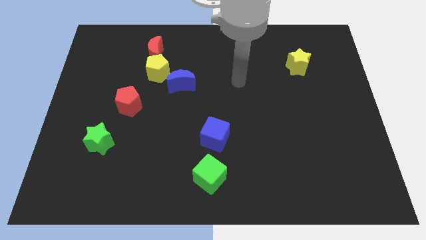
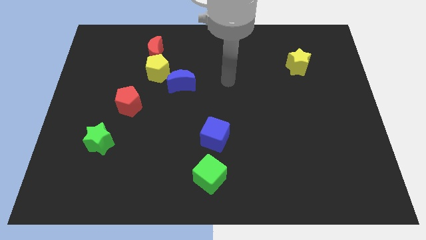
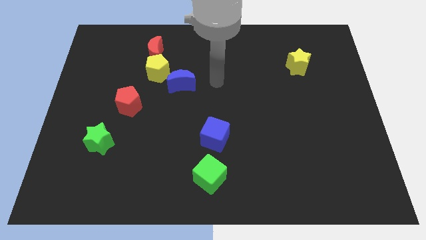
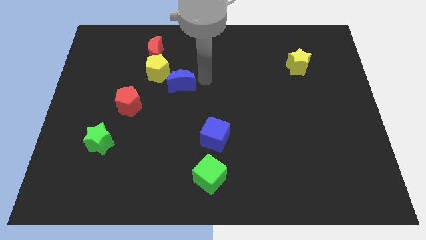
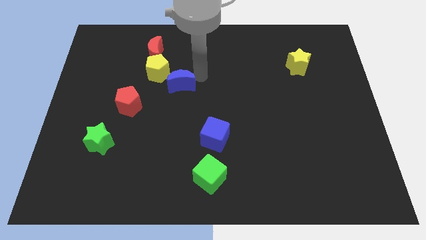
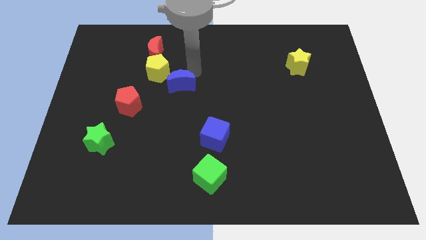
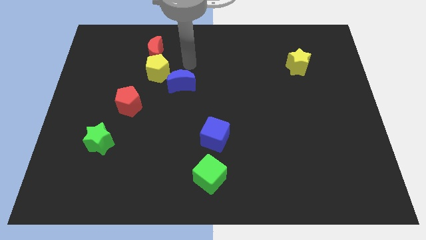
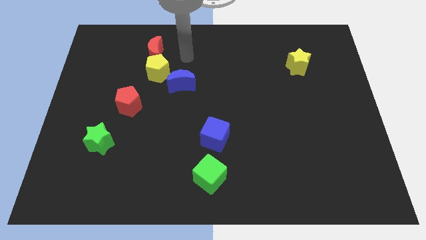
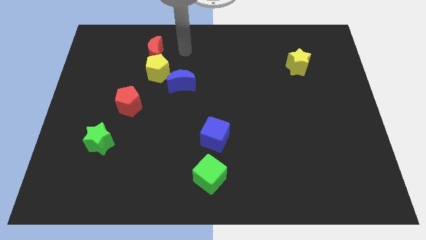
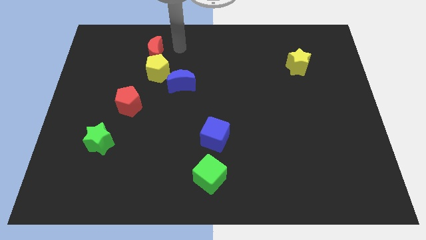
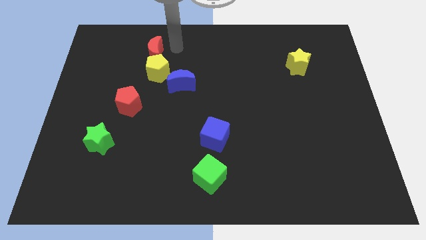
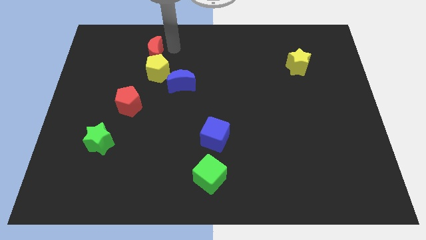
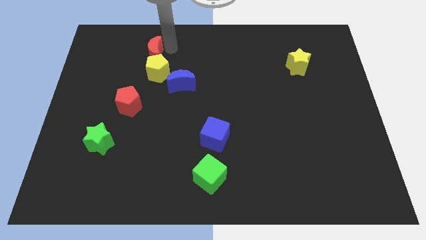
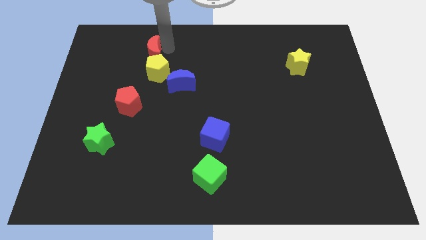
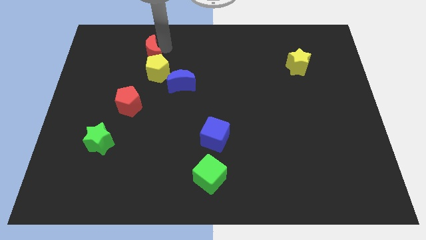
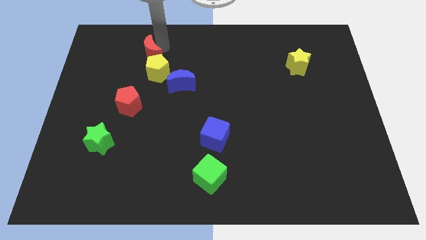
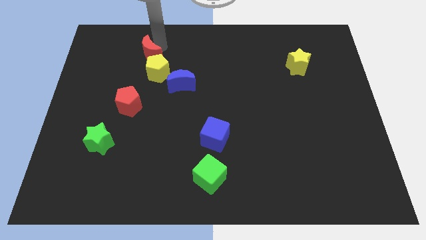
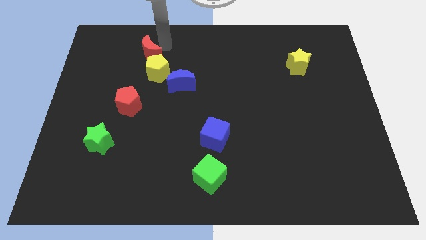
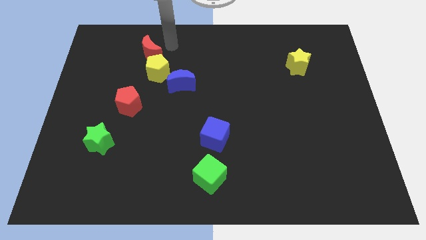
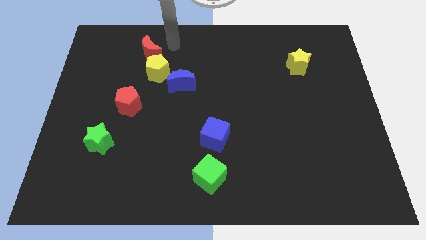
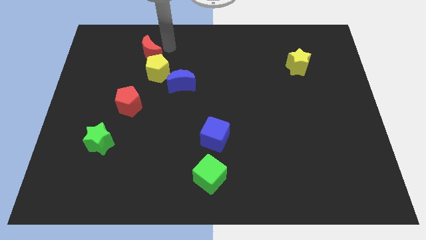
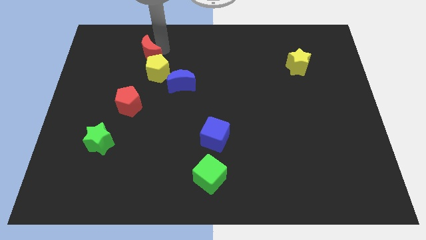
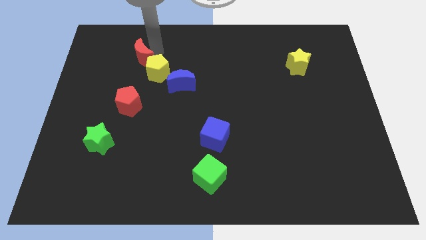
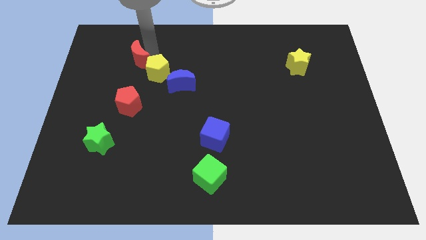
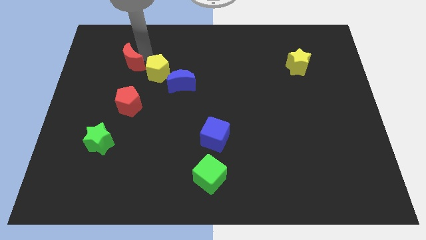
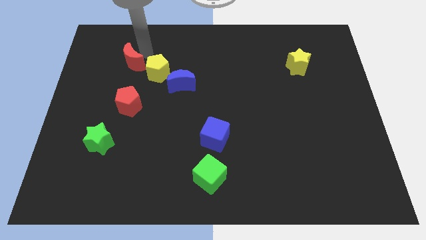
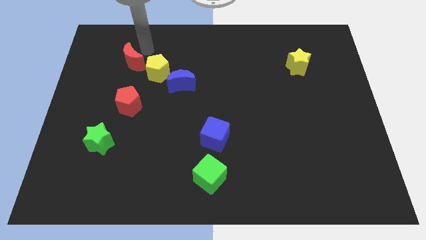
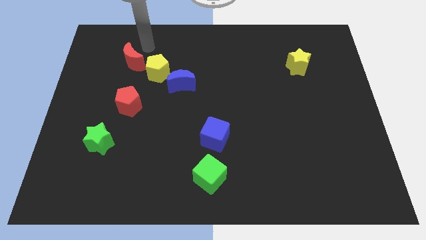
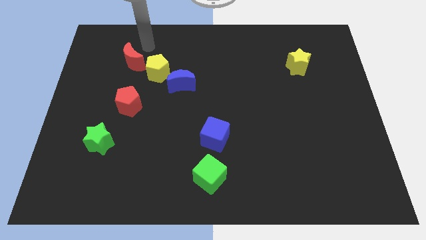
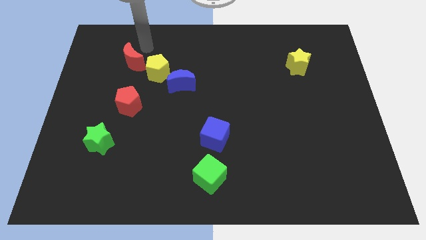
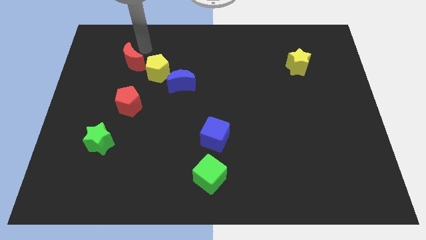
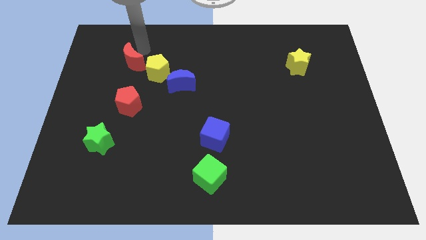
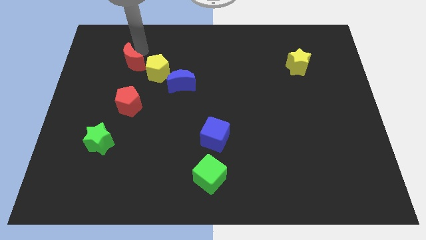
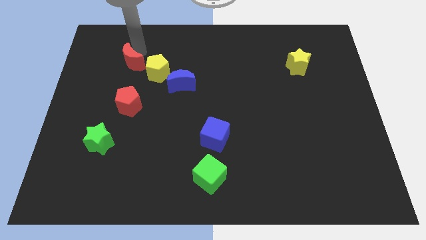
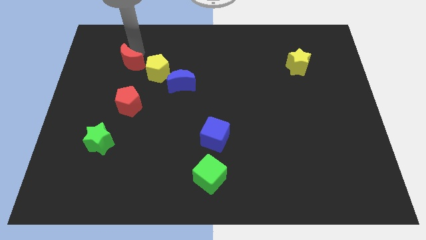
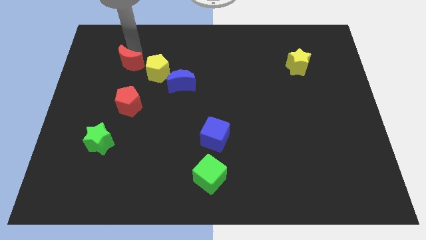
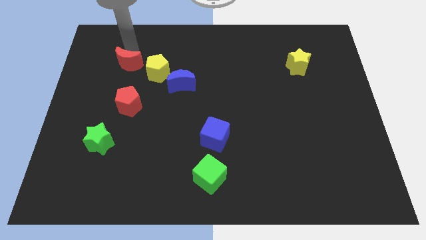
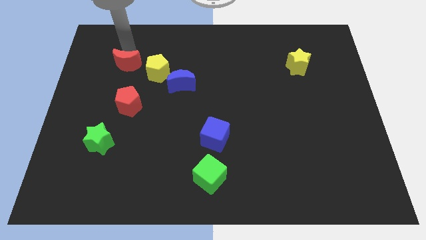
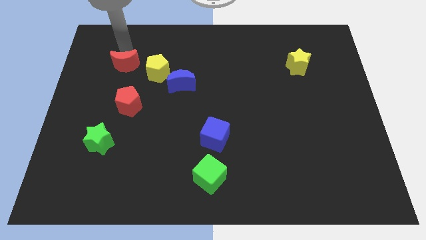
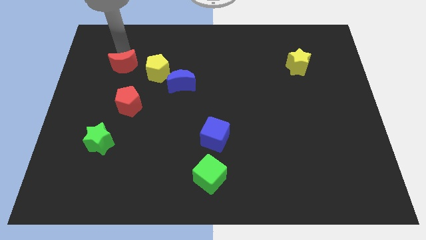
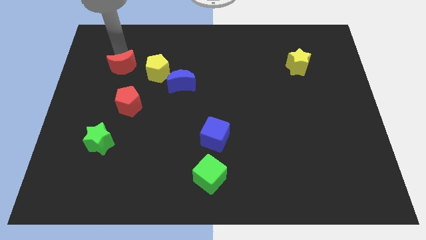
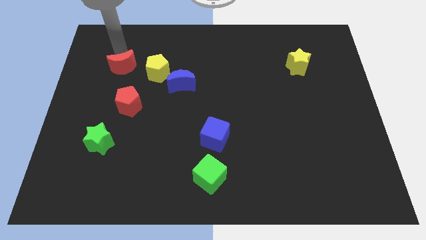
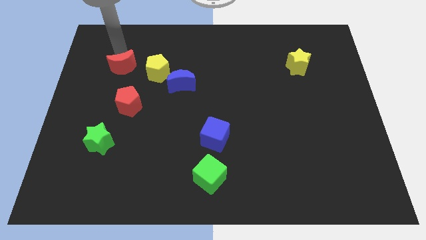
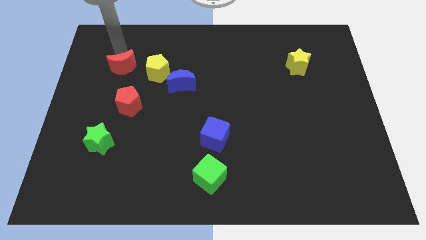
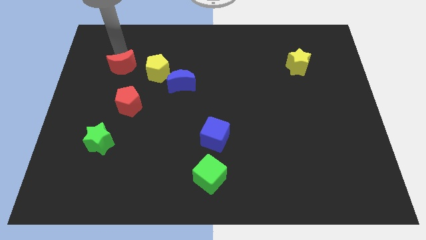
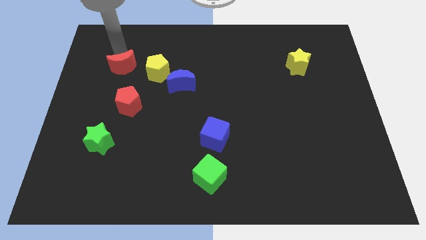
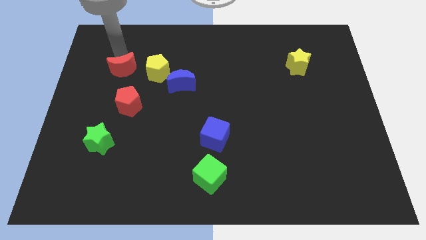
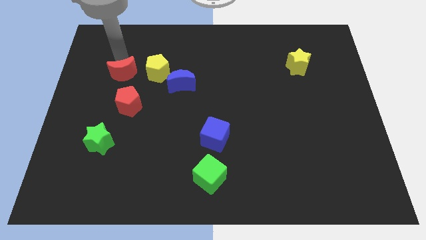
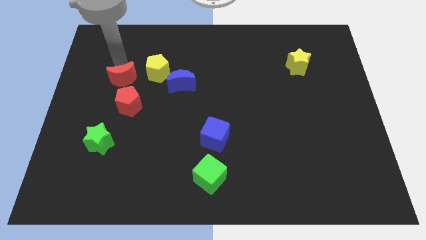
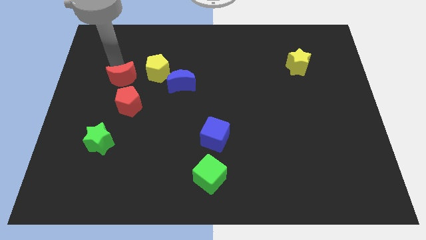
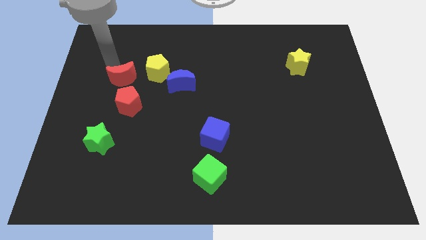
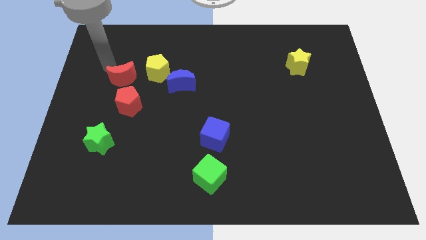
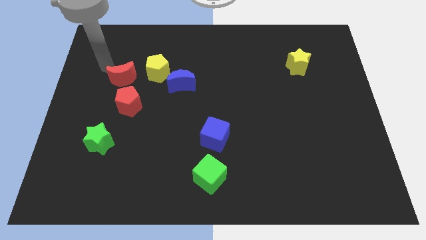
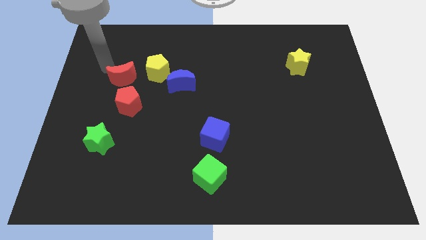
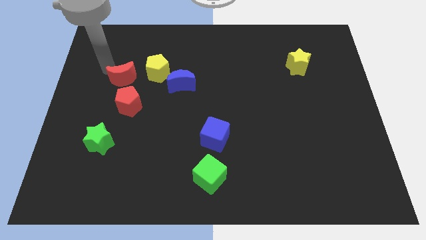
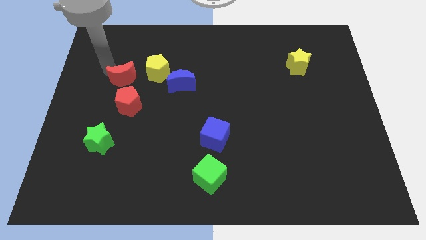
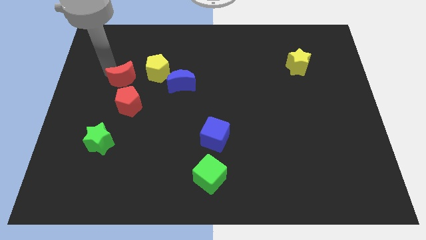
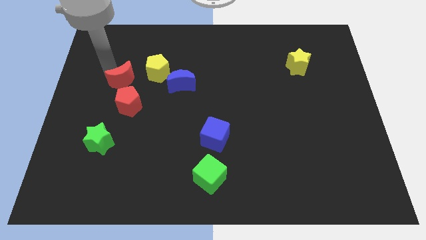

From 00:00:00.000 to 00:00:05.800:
slightly push the red moon downwards

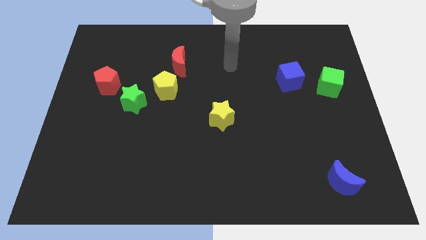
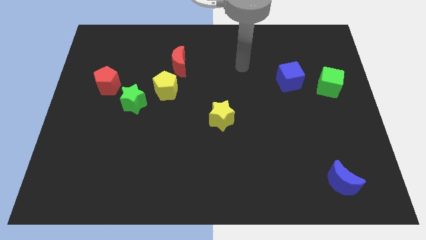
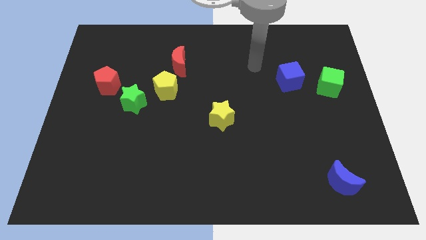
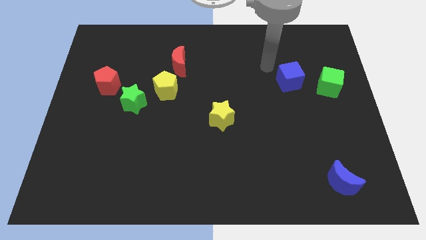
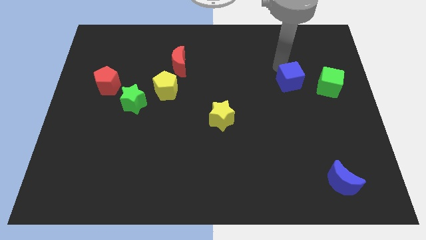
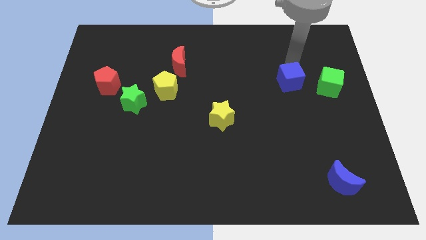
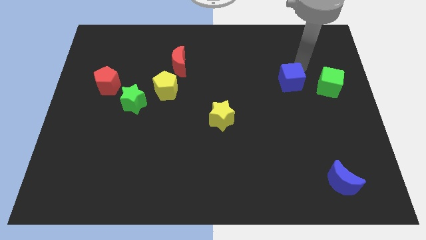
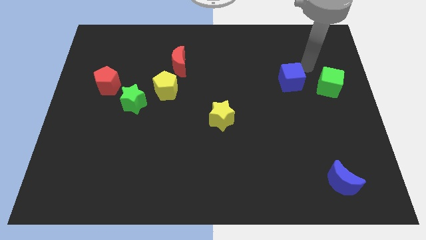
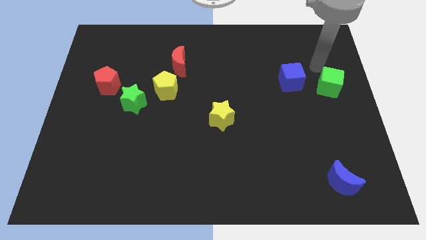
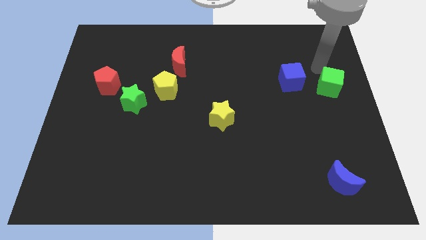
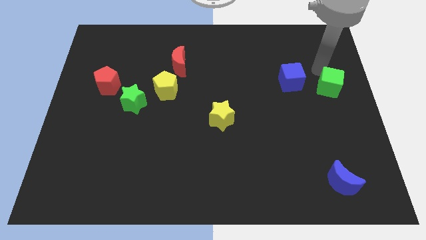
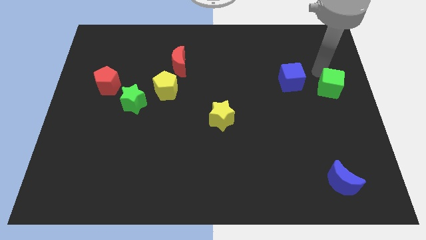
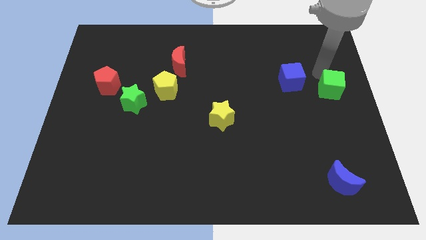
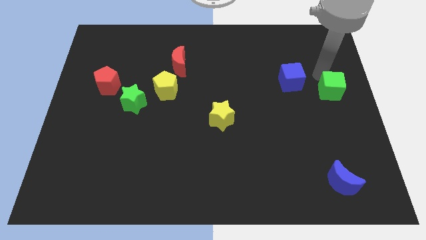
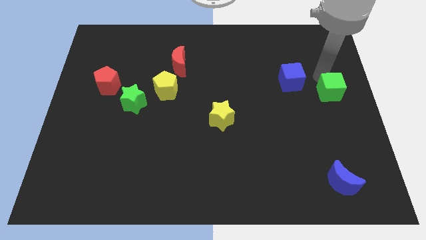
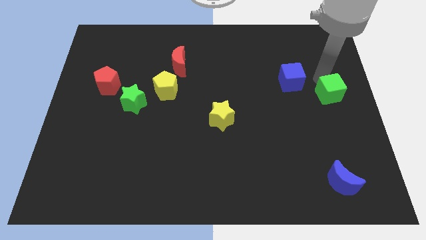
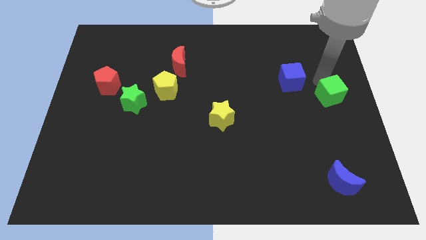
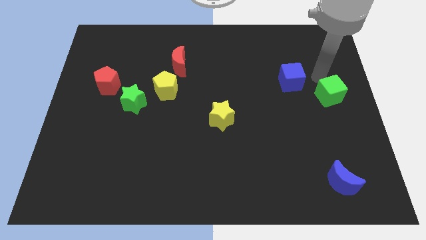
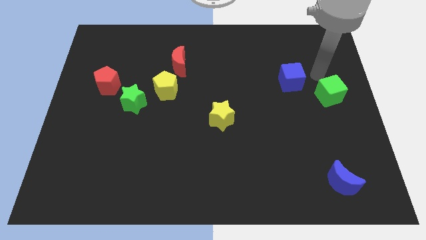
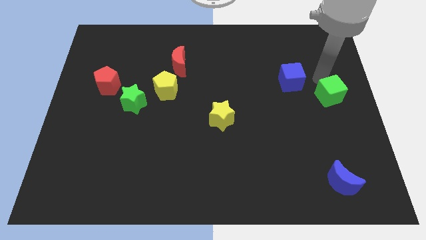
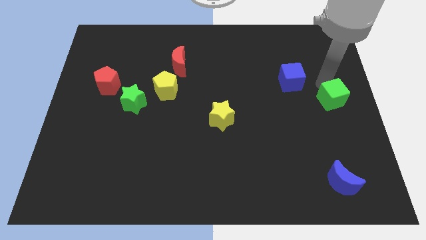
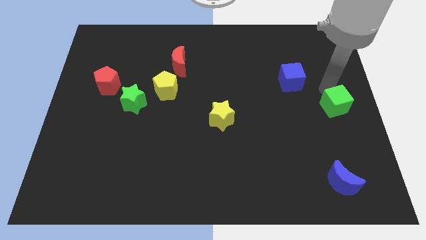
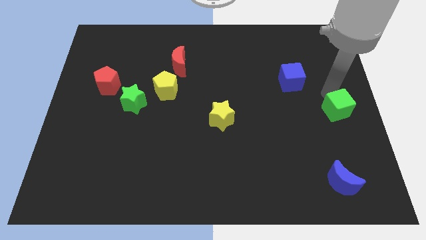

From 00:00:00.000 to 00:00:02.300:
slide the green cube downwards somewhat
